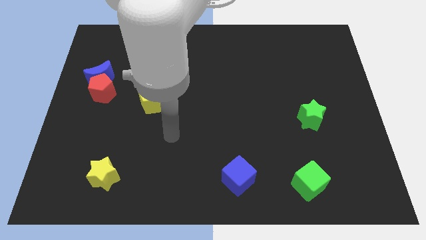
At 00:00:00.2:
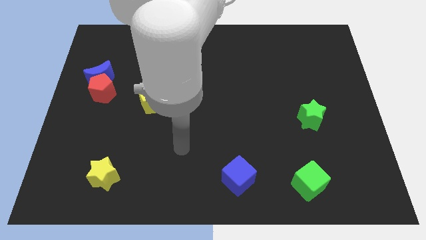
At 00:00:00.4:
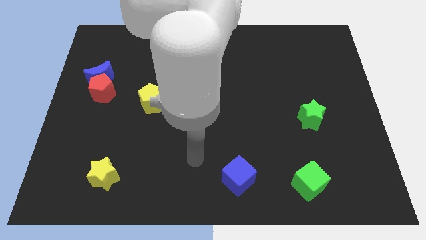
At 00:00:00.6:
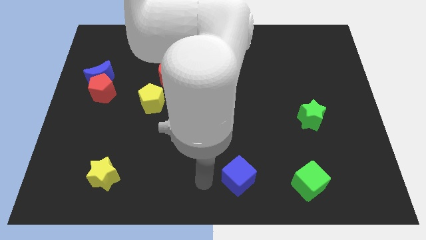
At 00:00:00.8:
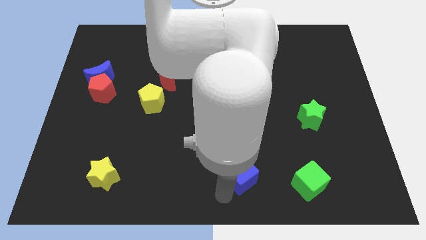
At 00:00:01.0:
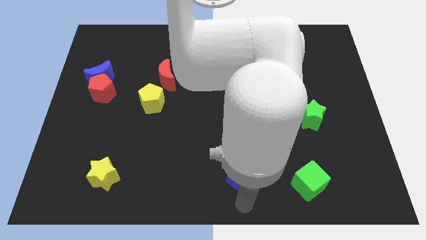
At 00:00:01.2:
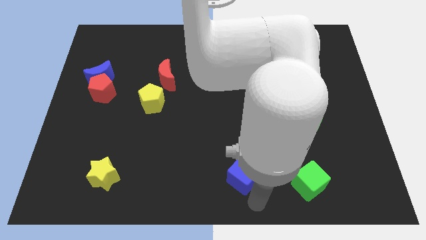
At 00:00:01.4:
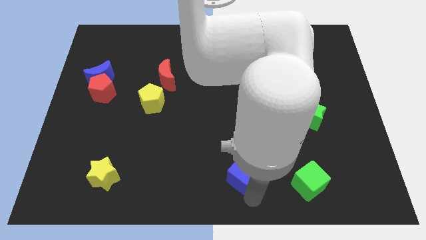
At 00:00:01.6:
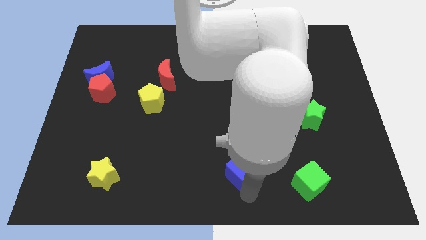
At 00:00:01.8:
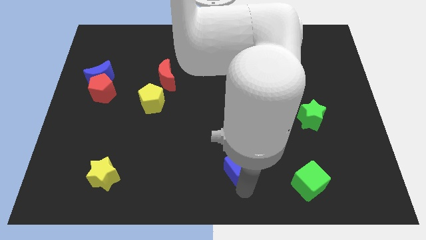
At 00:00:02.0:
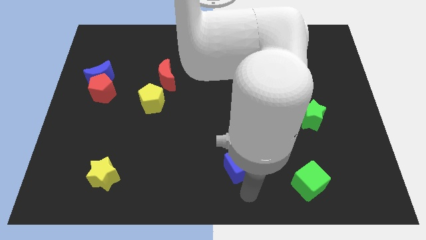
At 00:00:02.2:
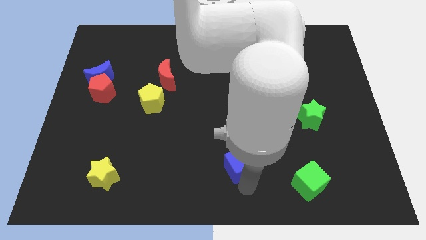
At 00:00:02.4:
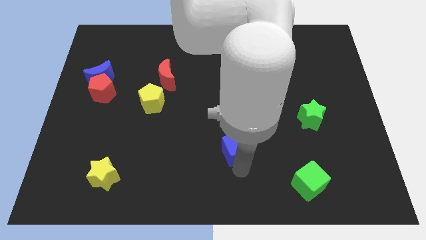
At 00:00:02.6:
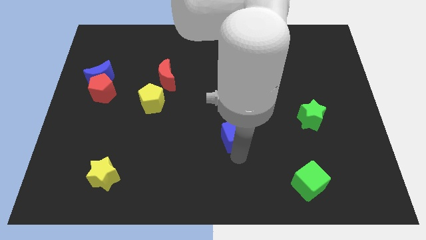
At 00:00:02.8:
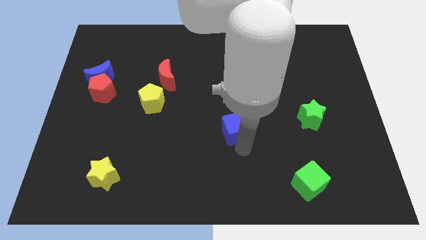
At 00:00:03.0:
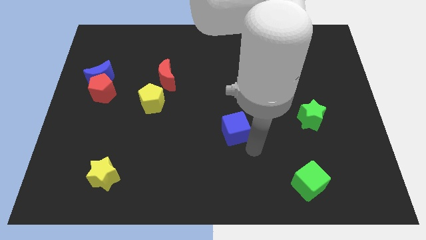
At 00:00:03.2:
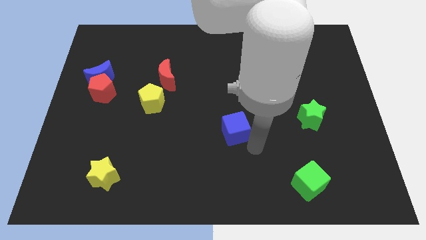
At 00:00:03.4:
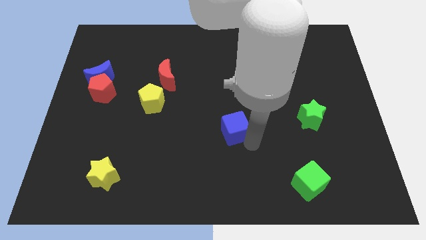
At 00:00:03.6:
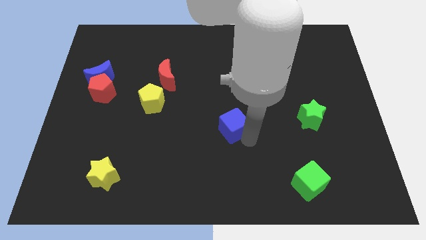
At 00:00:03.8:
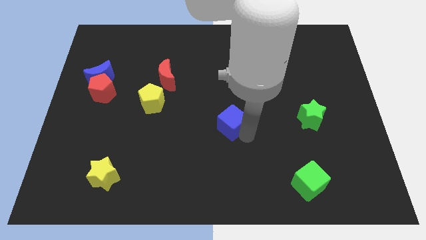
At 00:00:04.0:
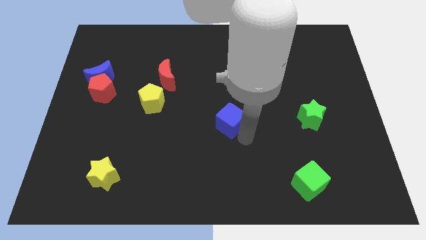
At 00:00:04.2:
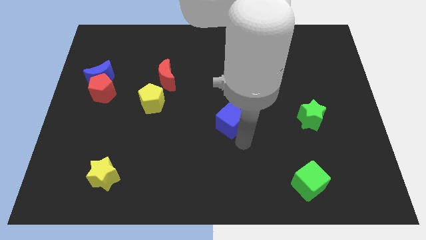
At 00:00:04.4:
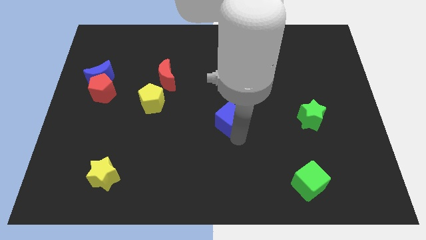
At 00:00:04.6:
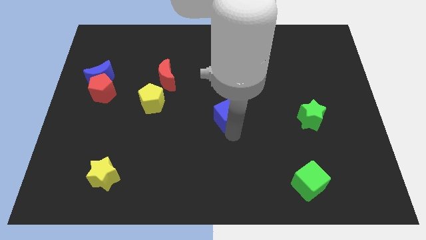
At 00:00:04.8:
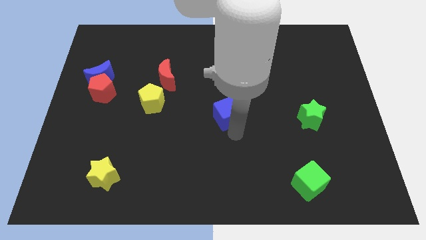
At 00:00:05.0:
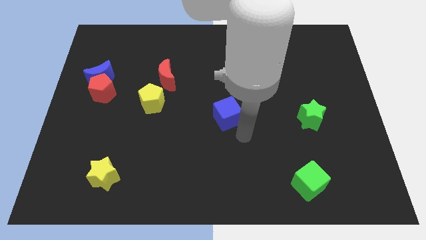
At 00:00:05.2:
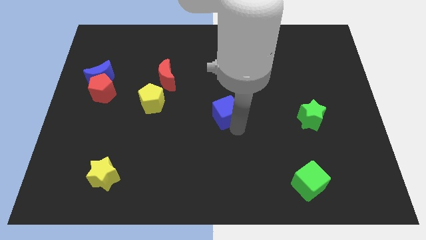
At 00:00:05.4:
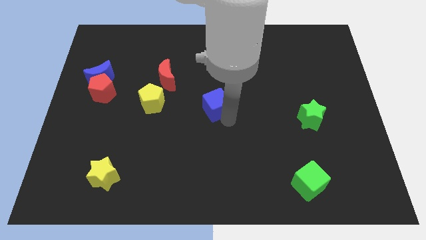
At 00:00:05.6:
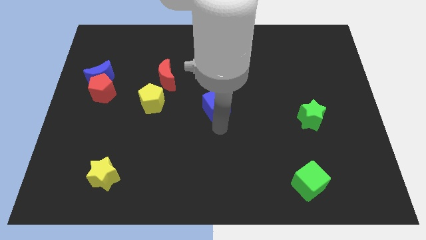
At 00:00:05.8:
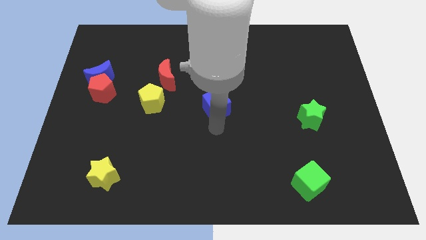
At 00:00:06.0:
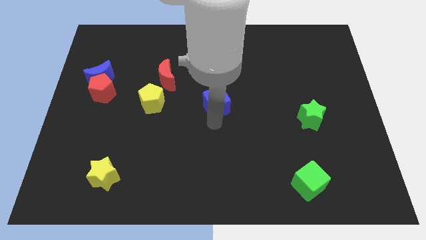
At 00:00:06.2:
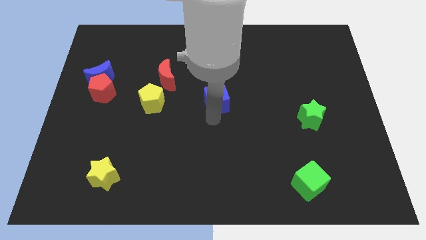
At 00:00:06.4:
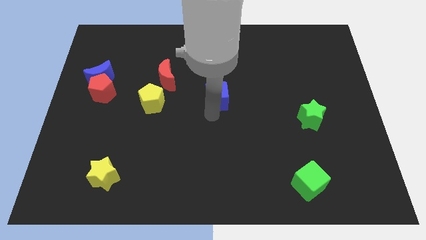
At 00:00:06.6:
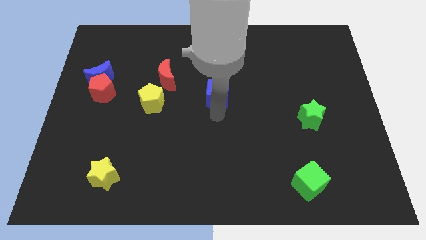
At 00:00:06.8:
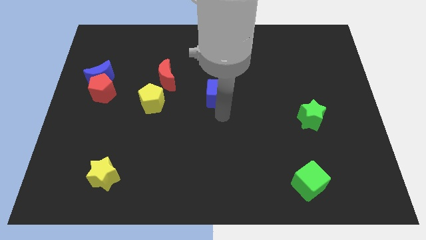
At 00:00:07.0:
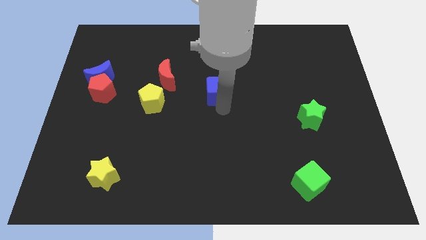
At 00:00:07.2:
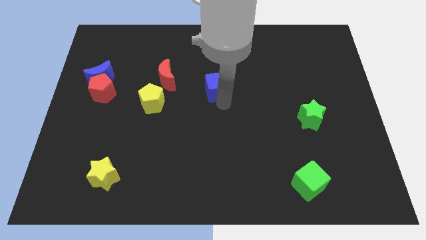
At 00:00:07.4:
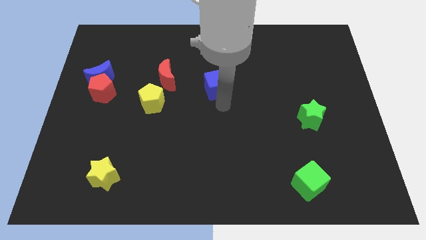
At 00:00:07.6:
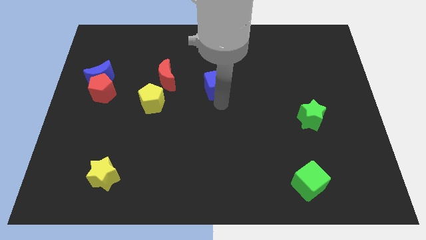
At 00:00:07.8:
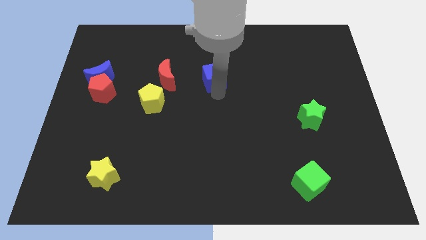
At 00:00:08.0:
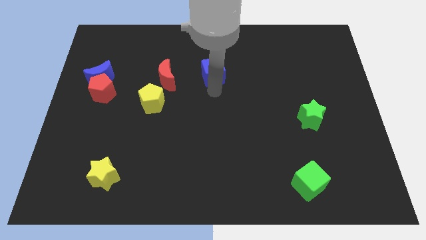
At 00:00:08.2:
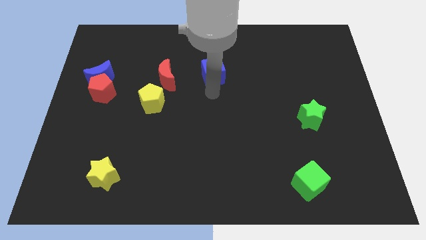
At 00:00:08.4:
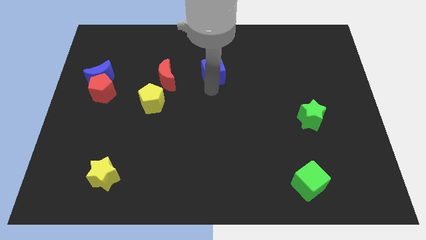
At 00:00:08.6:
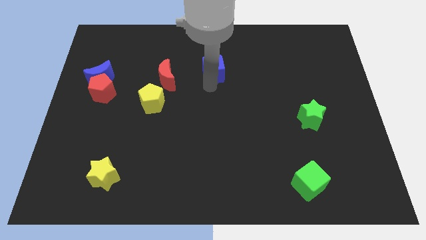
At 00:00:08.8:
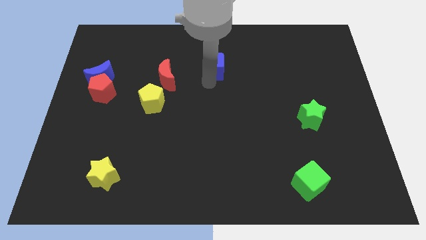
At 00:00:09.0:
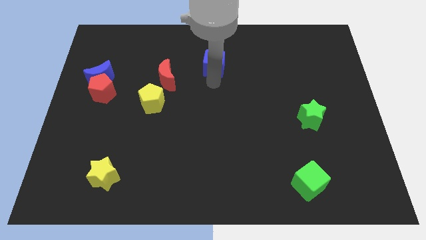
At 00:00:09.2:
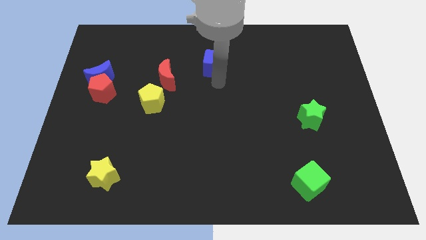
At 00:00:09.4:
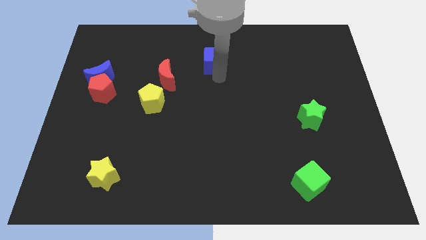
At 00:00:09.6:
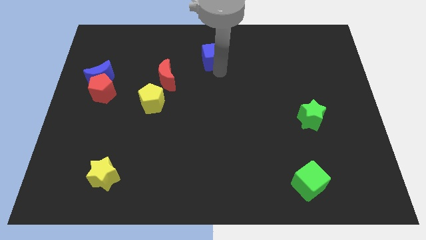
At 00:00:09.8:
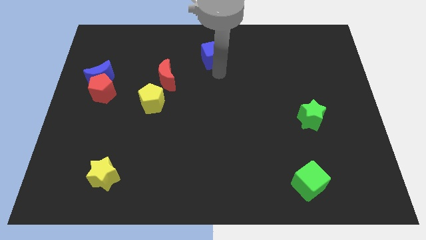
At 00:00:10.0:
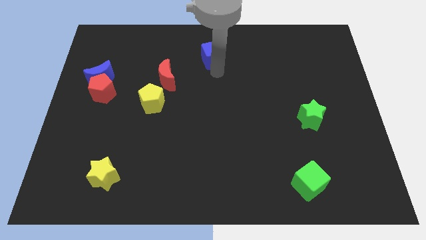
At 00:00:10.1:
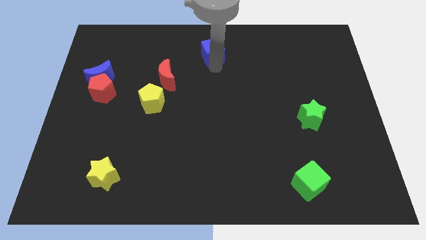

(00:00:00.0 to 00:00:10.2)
slide the blue cube to the top side

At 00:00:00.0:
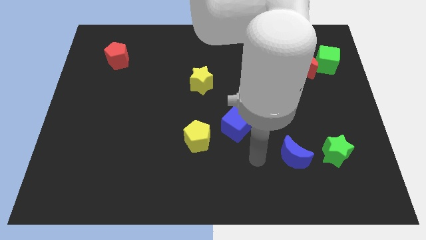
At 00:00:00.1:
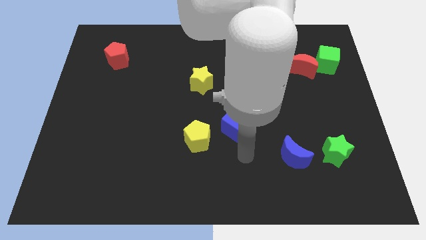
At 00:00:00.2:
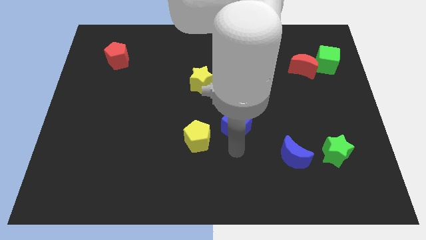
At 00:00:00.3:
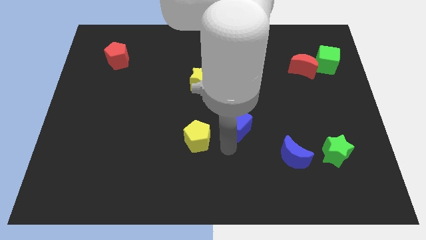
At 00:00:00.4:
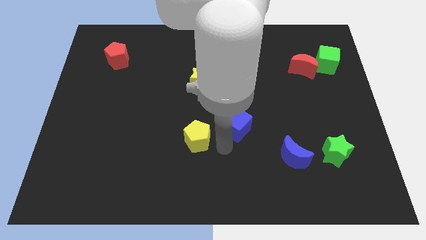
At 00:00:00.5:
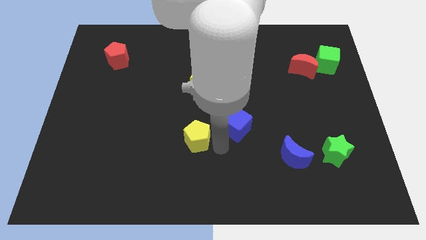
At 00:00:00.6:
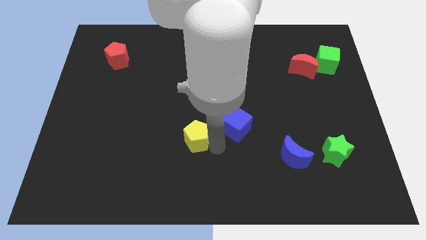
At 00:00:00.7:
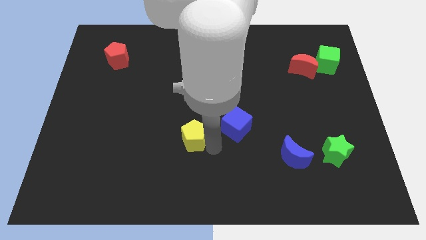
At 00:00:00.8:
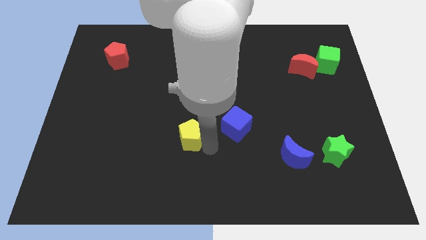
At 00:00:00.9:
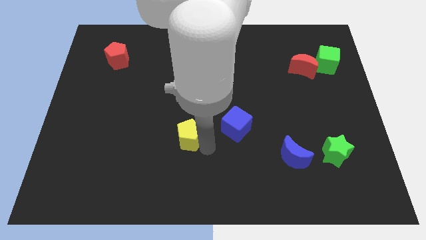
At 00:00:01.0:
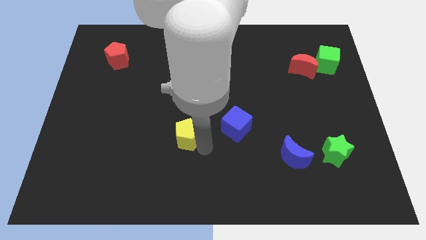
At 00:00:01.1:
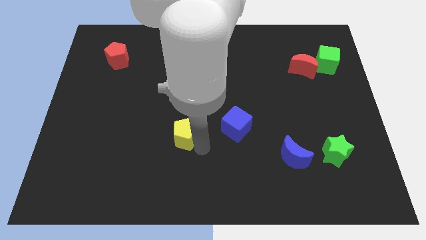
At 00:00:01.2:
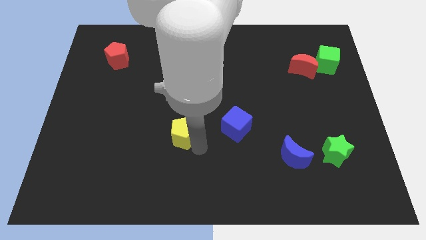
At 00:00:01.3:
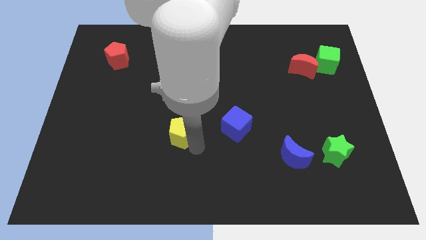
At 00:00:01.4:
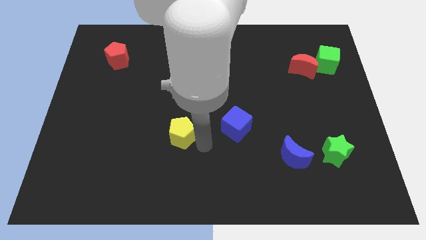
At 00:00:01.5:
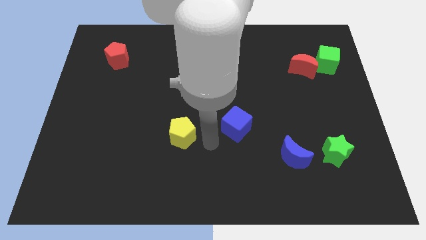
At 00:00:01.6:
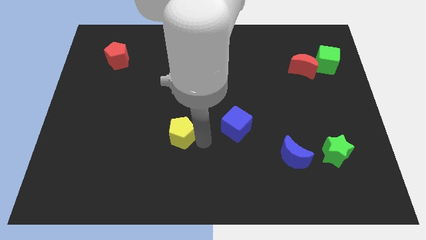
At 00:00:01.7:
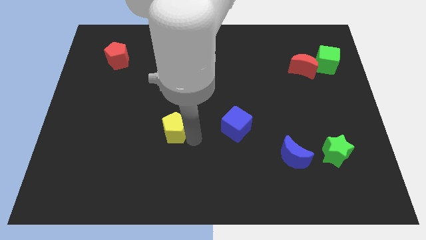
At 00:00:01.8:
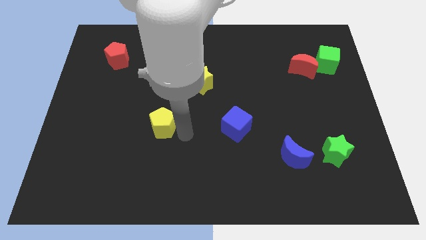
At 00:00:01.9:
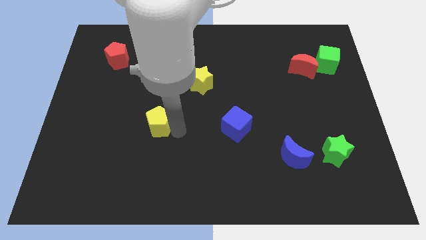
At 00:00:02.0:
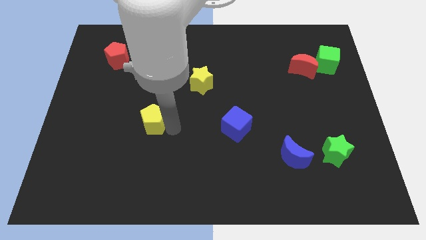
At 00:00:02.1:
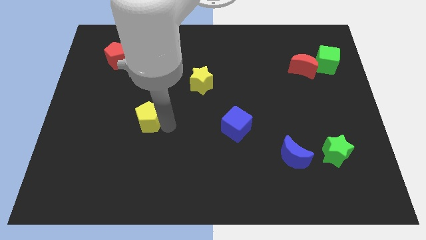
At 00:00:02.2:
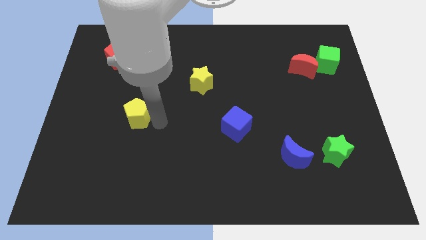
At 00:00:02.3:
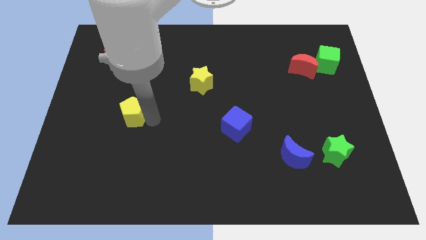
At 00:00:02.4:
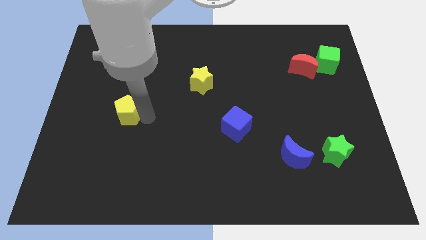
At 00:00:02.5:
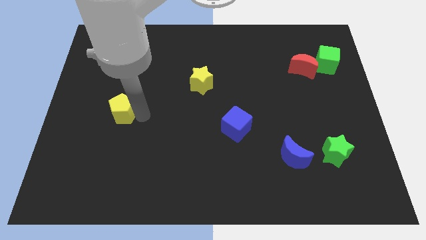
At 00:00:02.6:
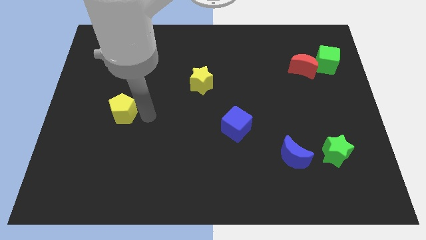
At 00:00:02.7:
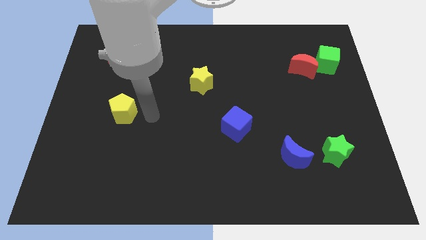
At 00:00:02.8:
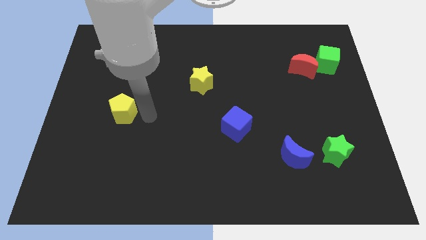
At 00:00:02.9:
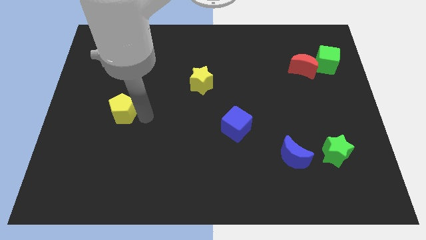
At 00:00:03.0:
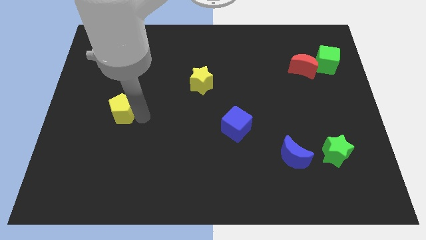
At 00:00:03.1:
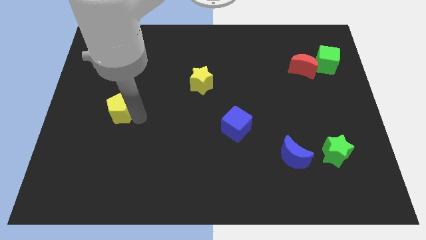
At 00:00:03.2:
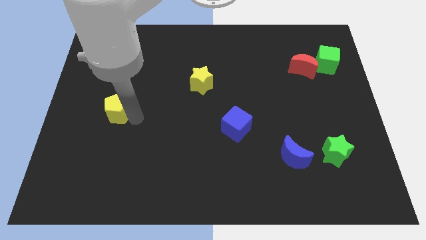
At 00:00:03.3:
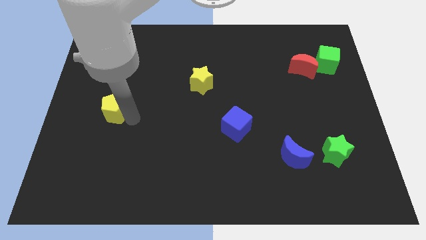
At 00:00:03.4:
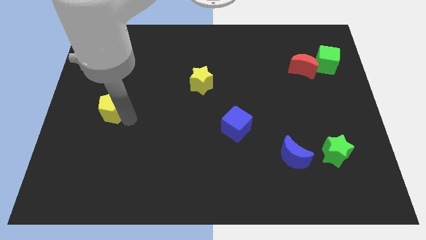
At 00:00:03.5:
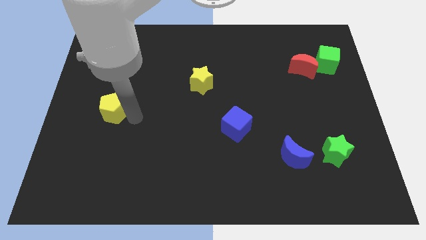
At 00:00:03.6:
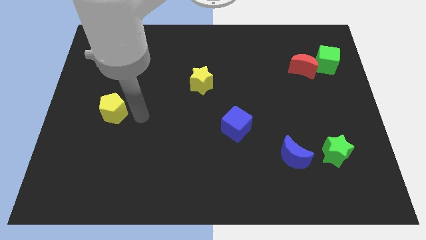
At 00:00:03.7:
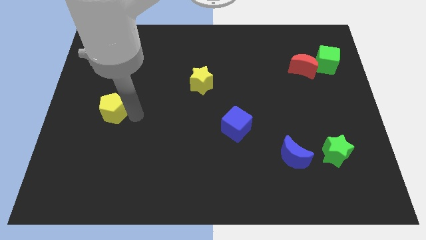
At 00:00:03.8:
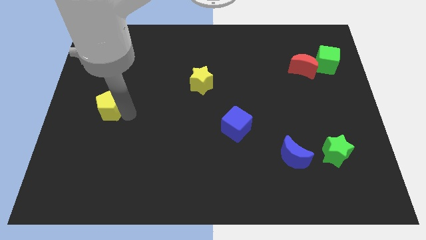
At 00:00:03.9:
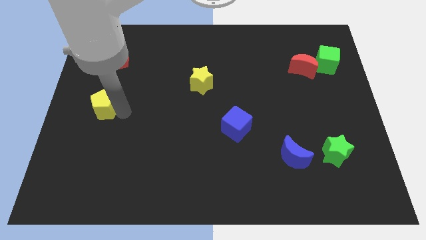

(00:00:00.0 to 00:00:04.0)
slide the yellow pentagon to the center left
